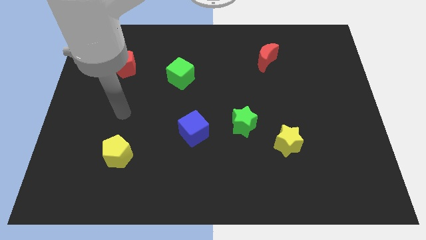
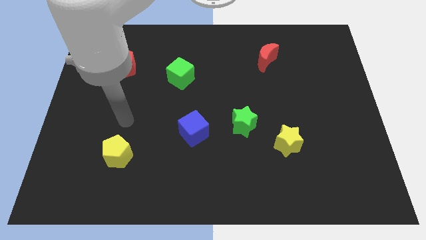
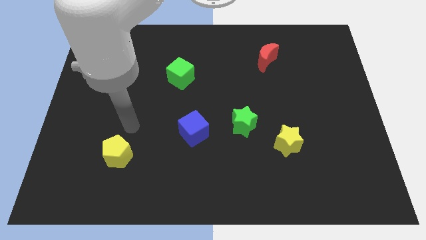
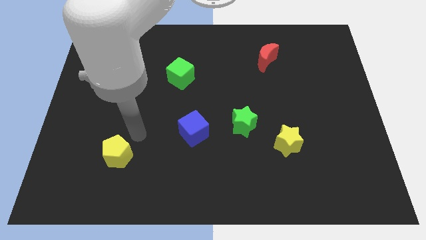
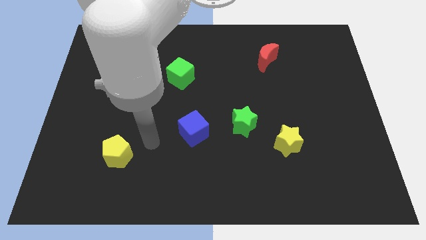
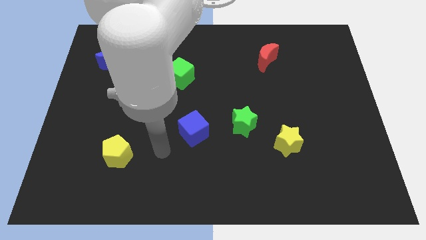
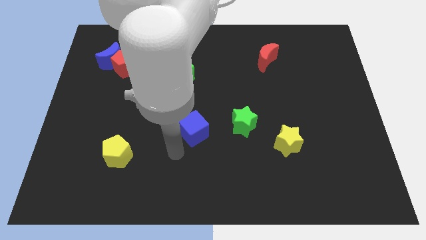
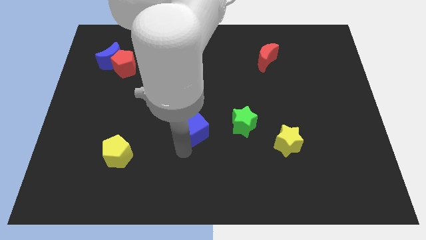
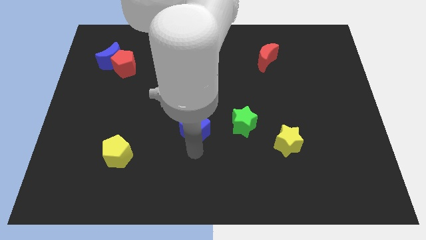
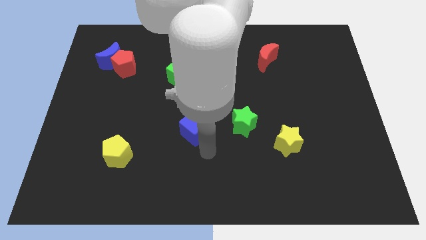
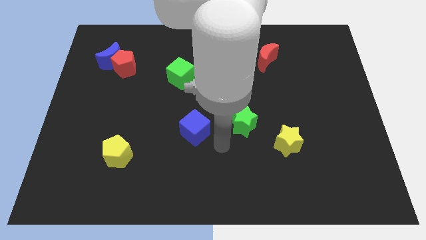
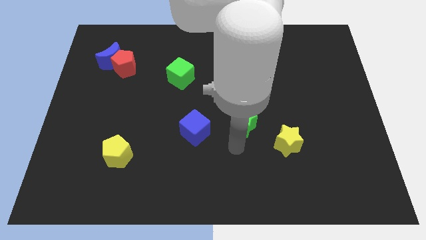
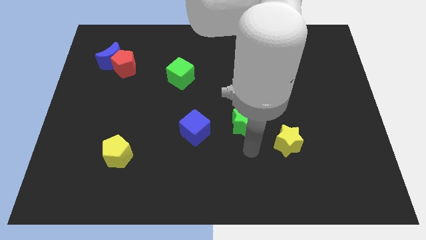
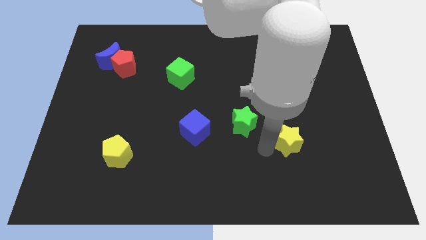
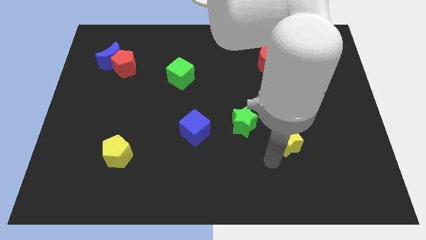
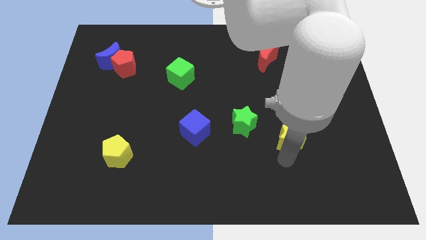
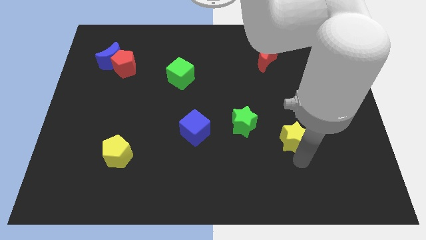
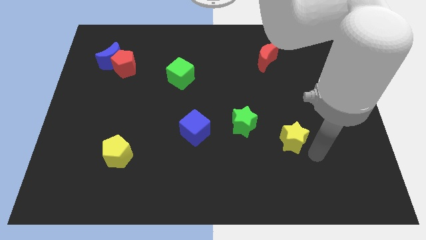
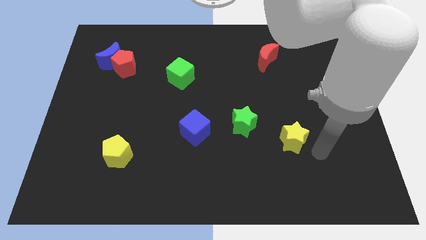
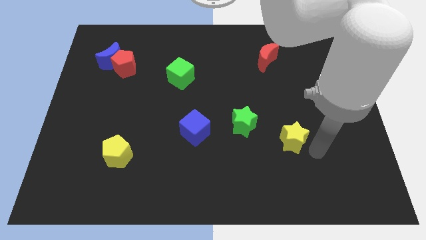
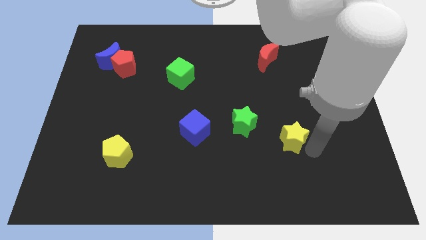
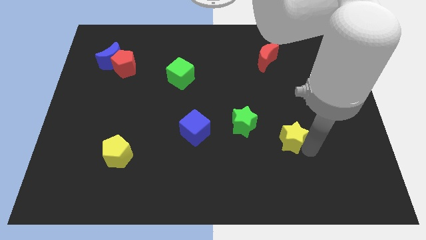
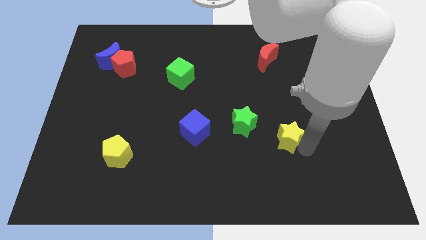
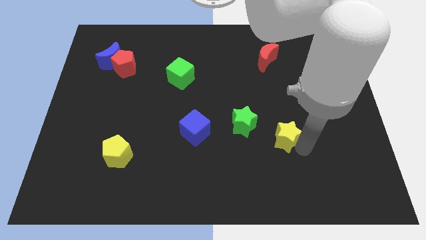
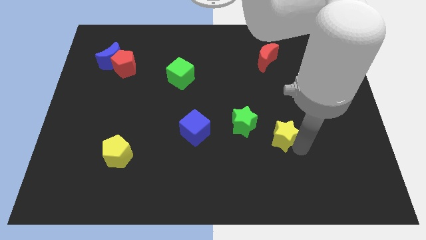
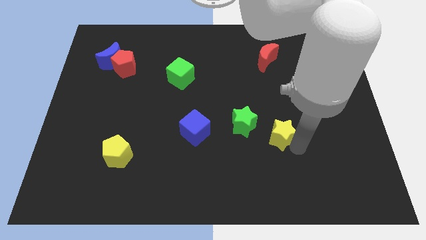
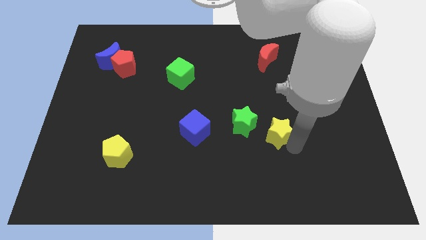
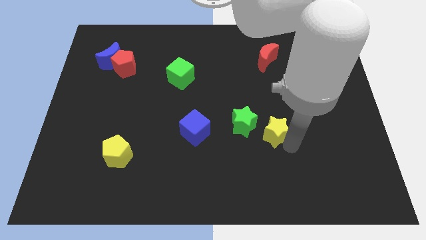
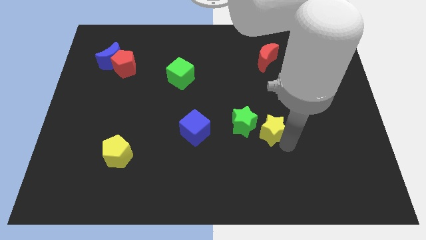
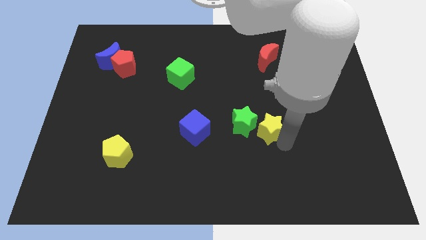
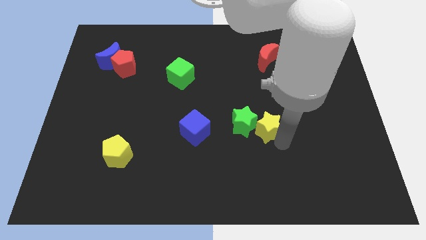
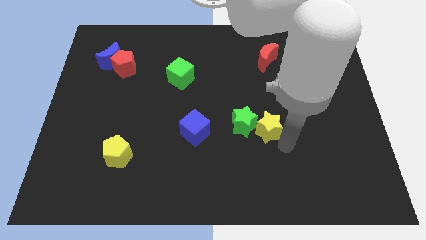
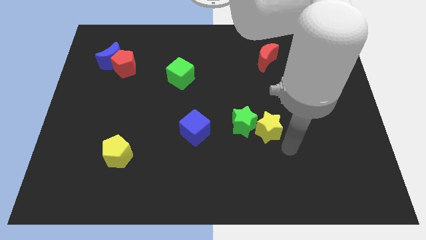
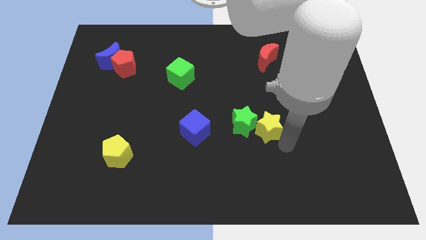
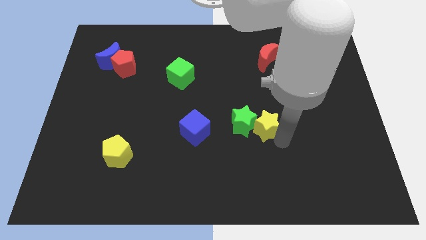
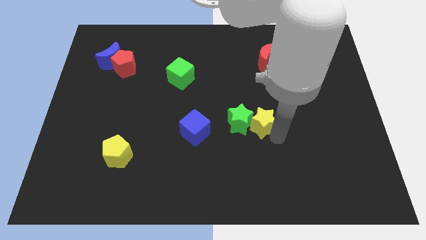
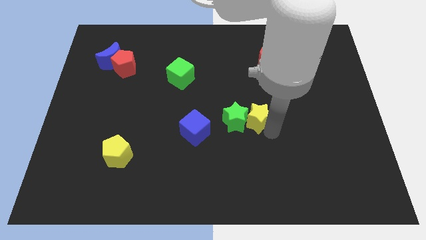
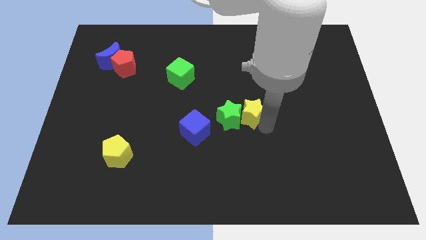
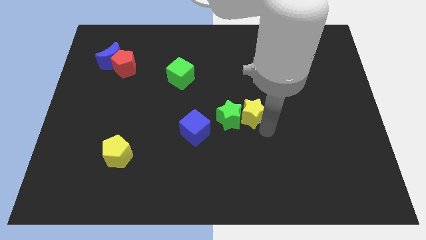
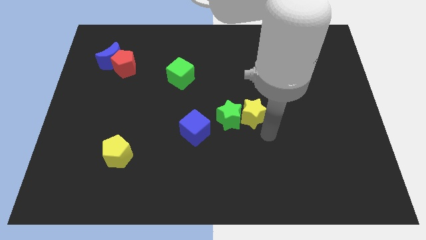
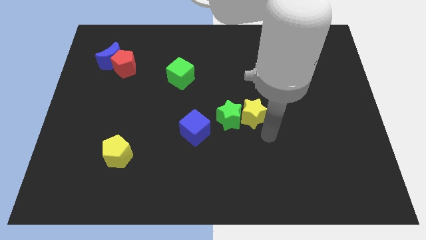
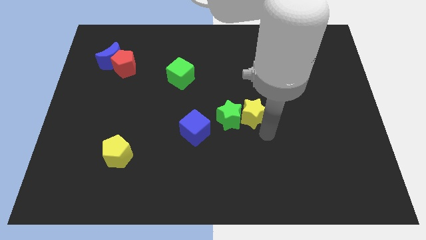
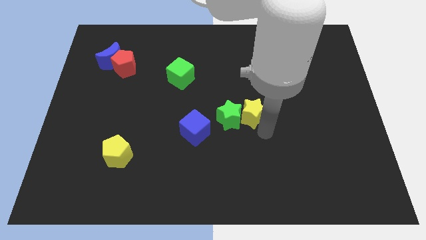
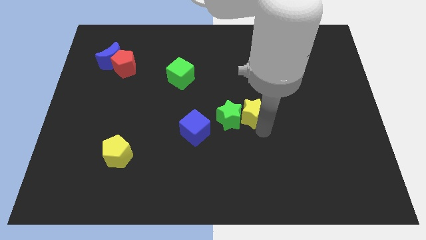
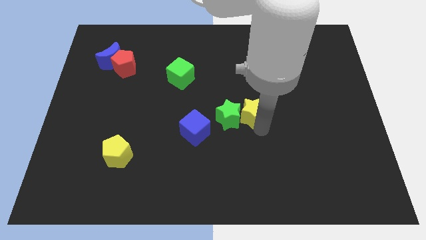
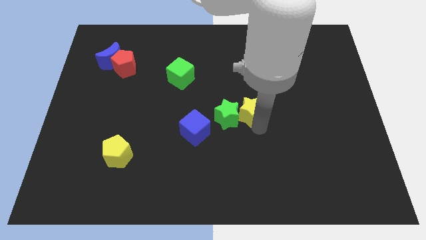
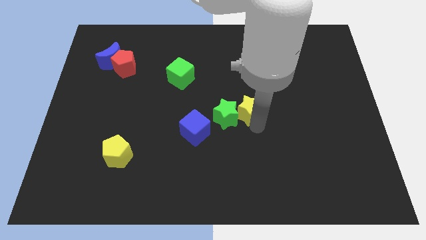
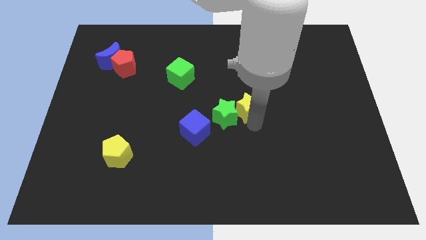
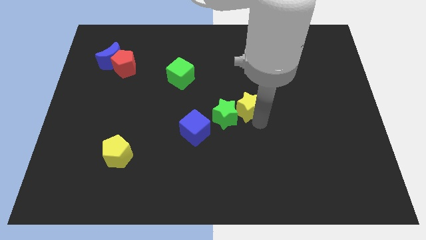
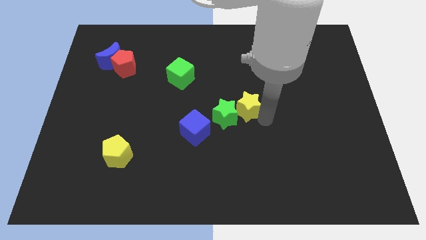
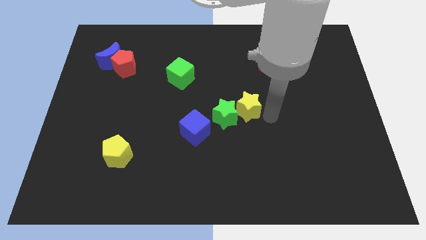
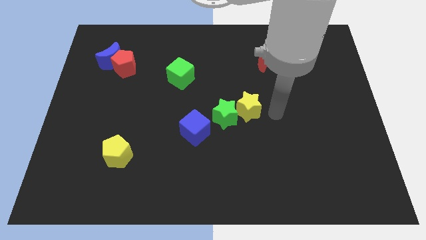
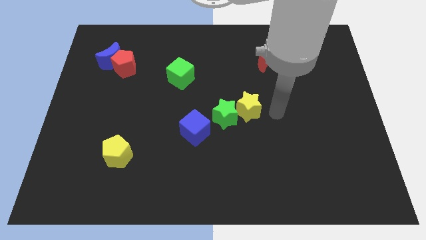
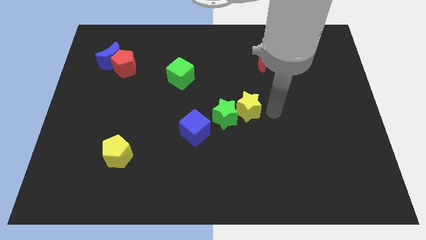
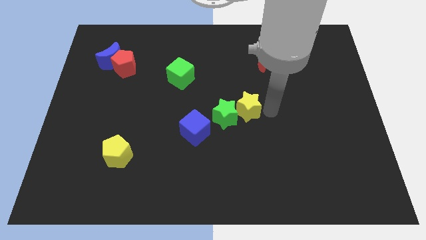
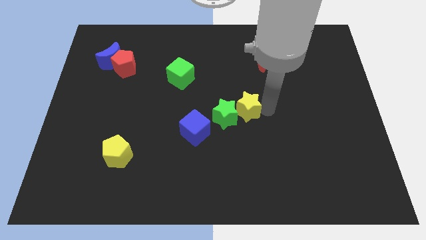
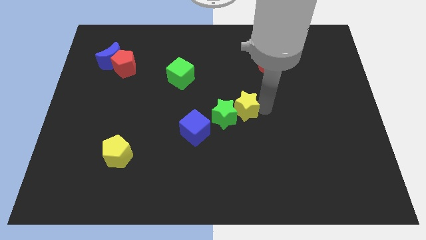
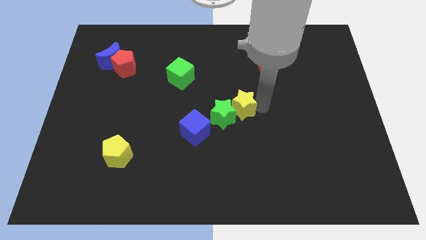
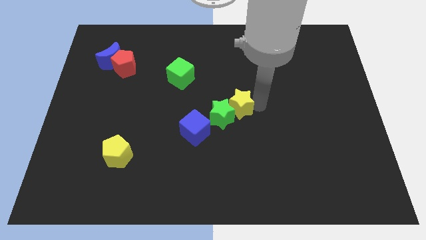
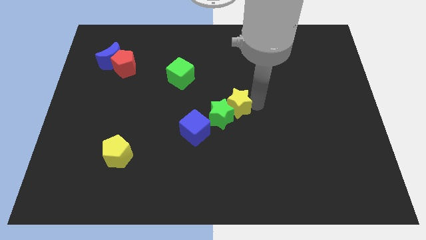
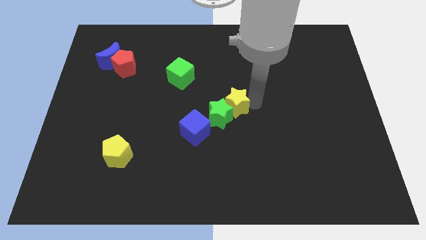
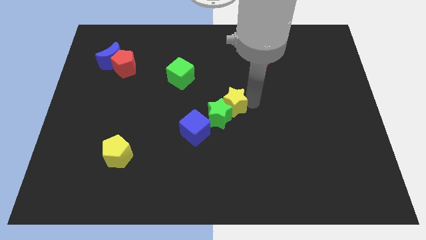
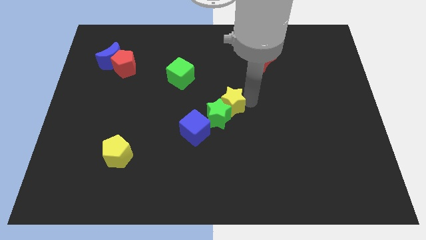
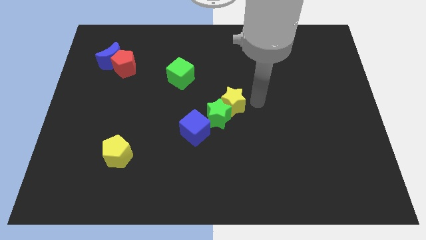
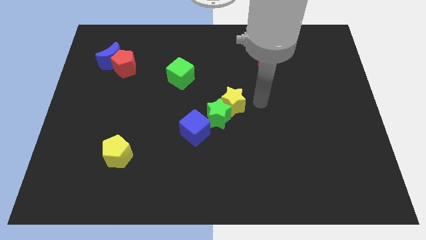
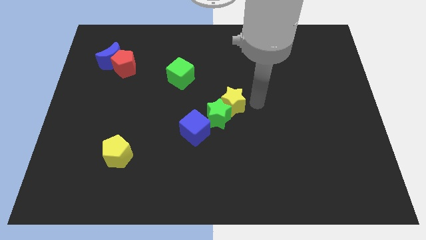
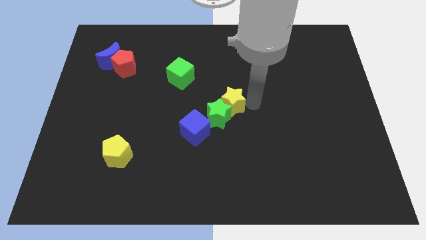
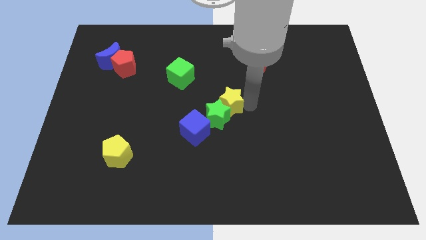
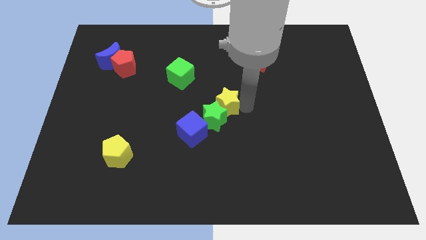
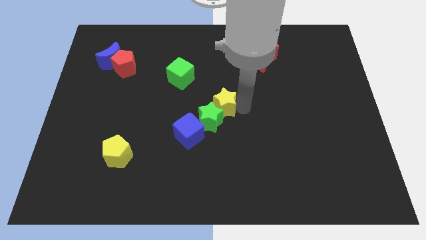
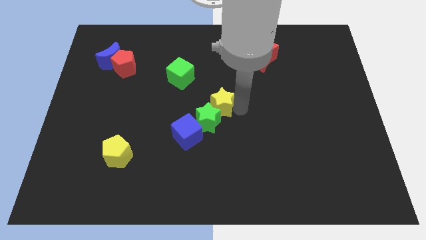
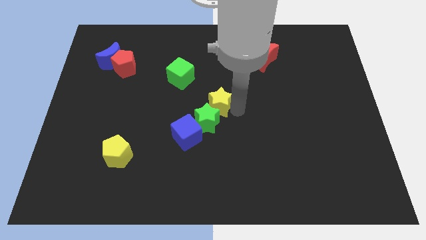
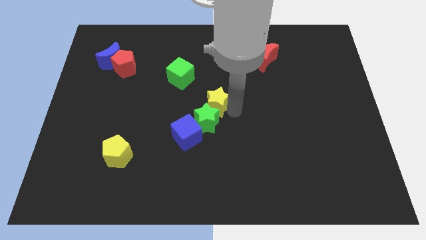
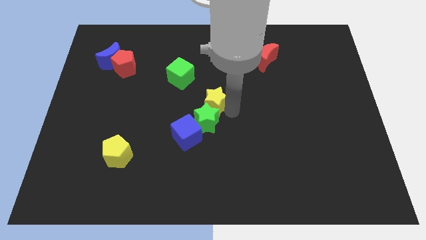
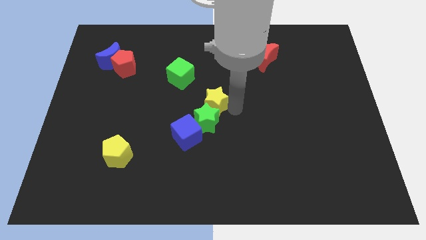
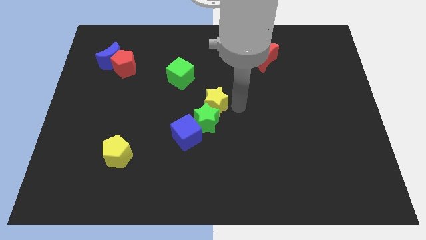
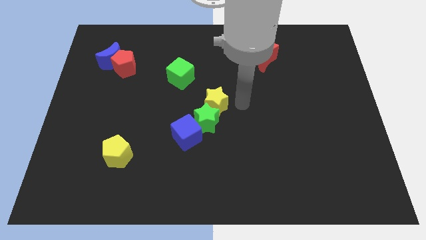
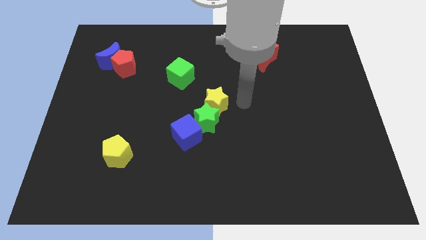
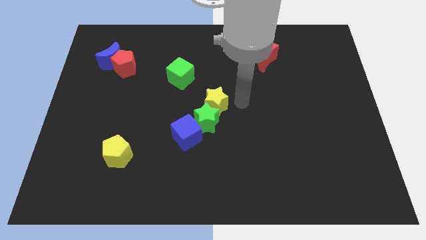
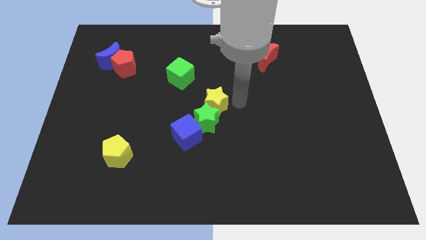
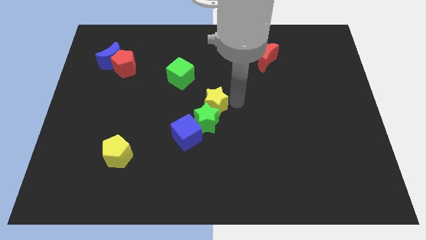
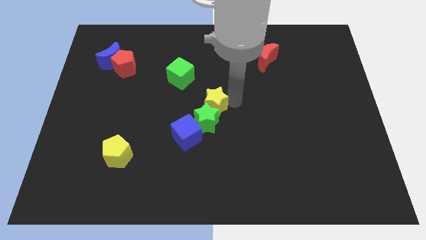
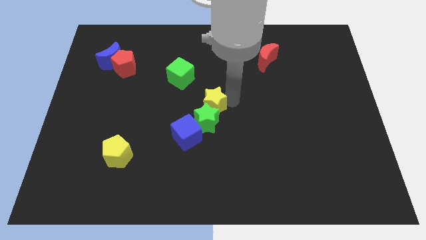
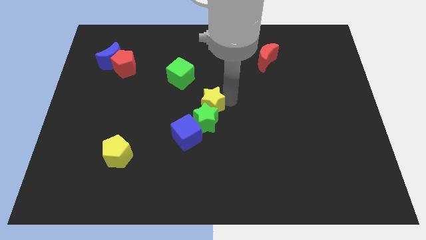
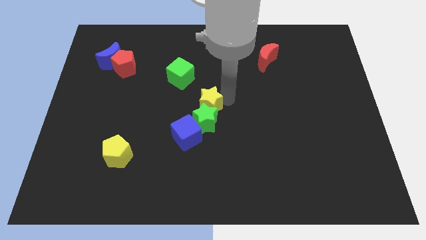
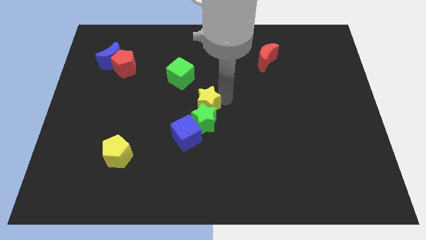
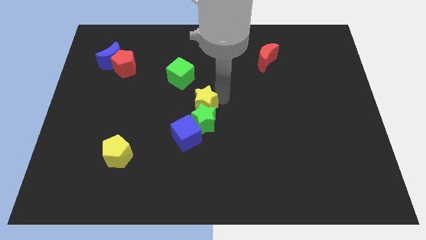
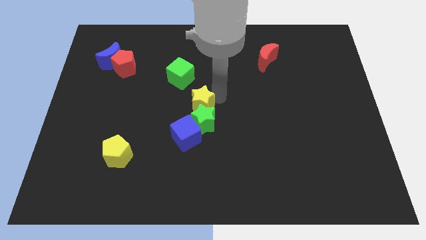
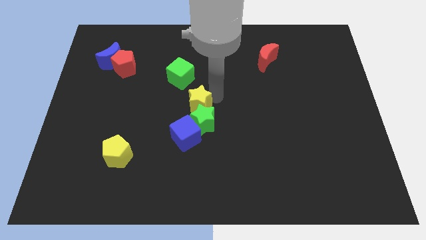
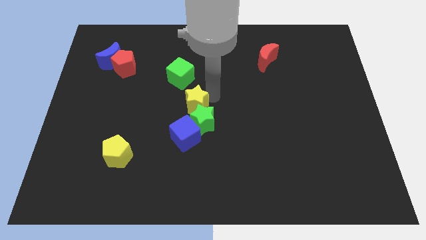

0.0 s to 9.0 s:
move the yellow star below the green cube
